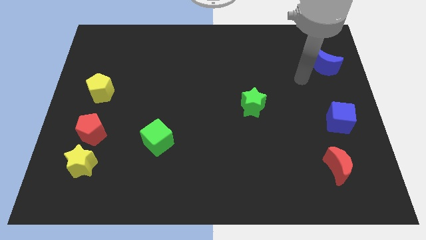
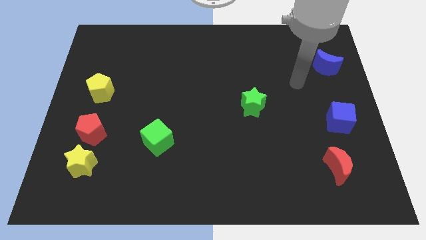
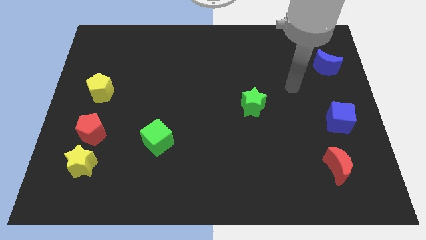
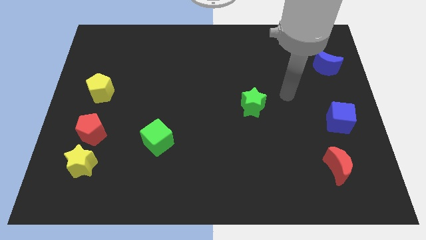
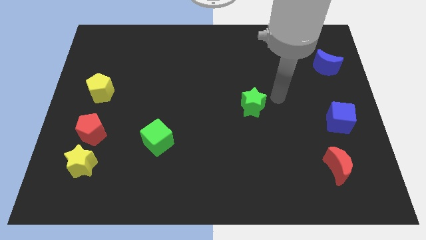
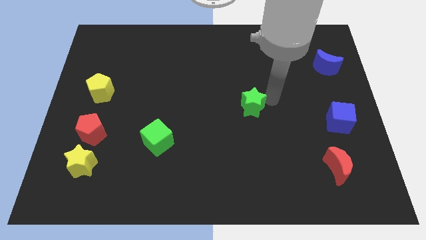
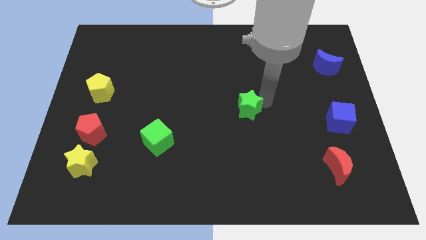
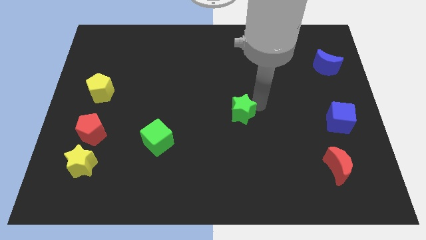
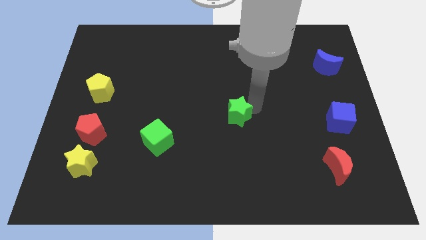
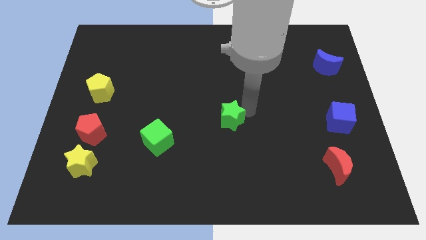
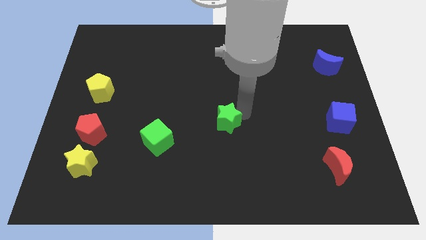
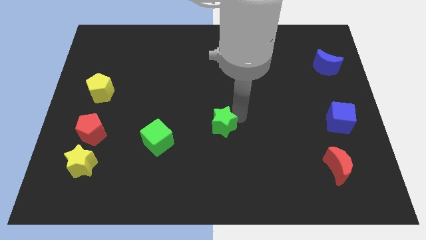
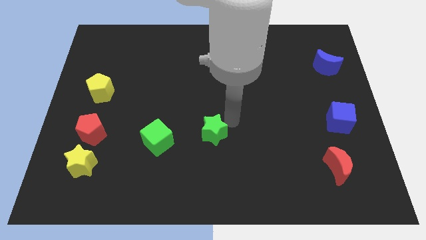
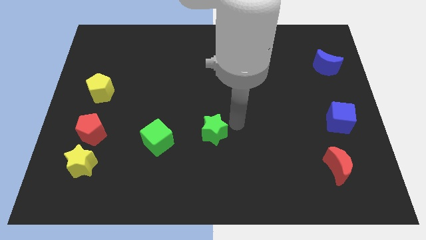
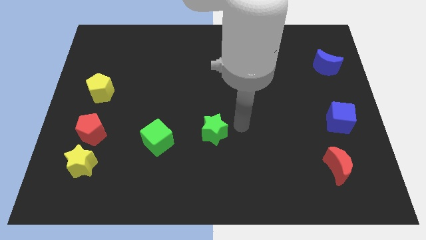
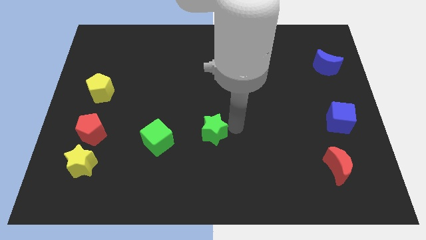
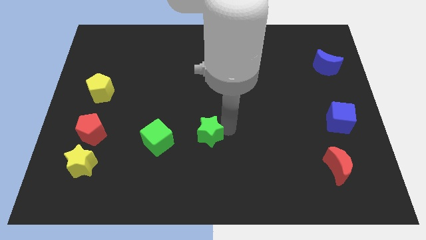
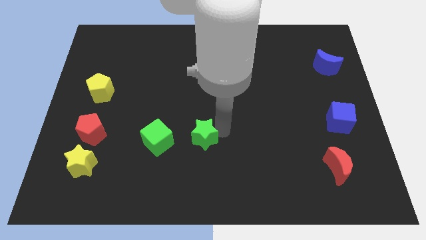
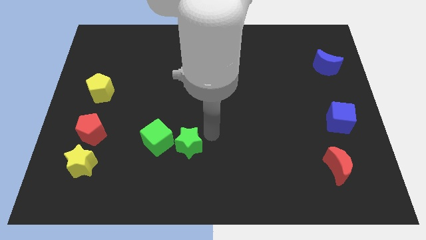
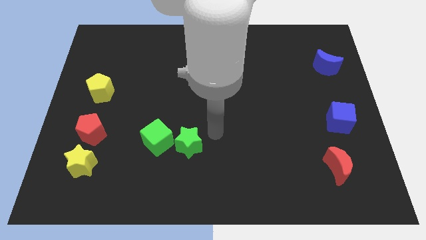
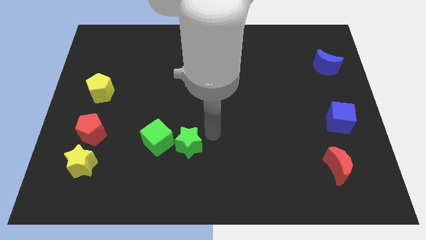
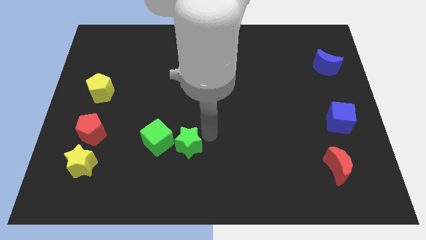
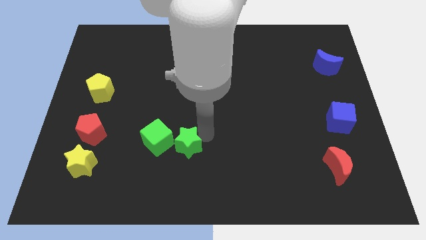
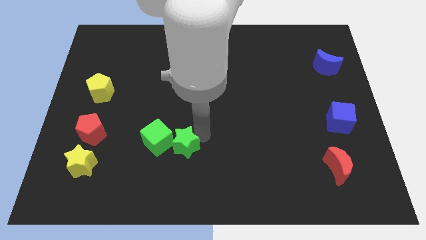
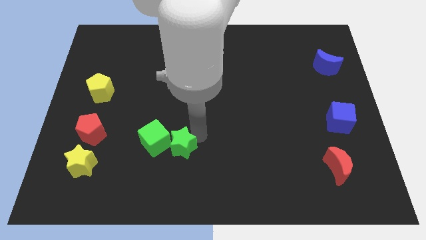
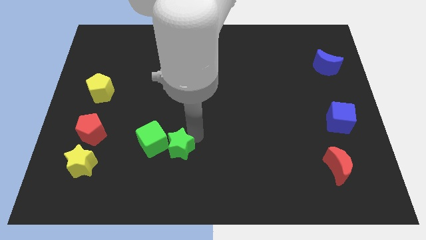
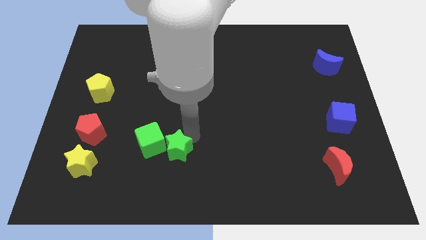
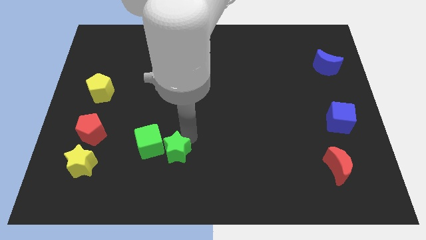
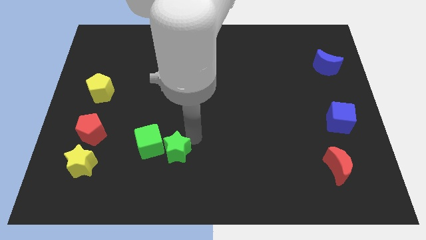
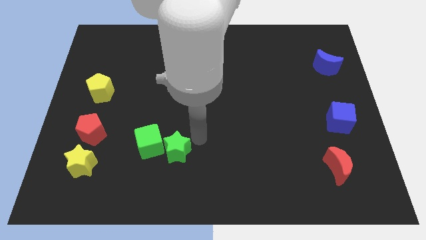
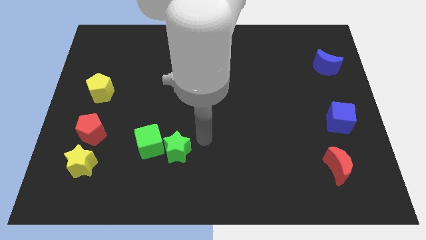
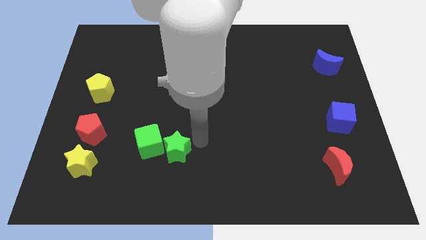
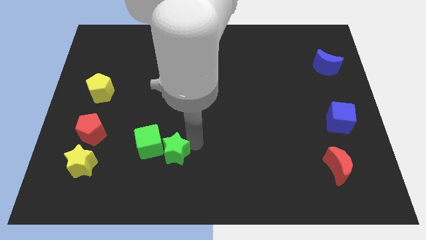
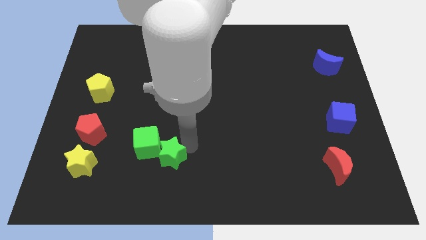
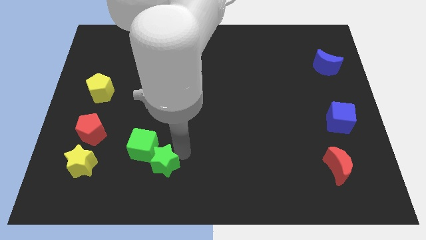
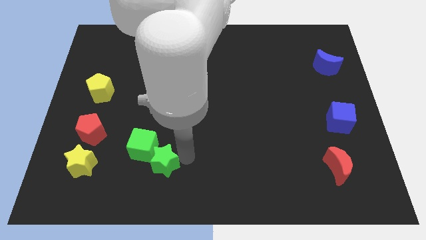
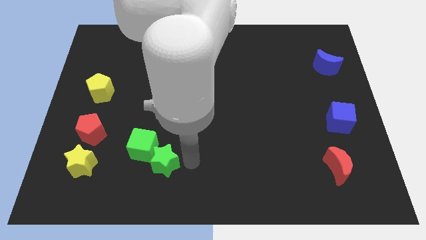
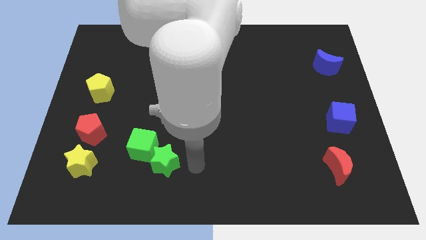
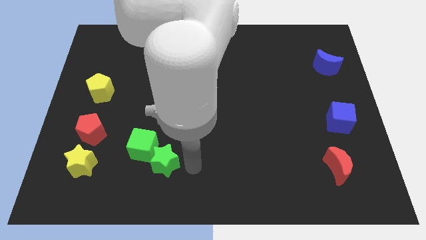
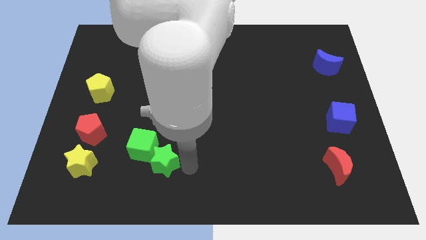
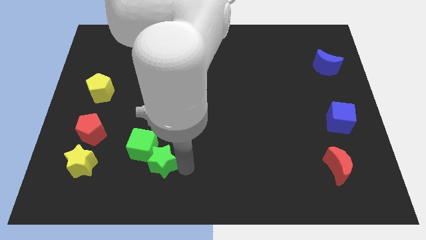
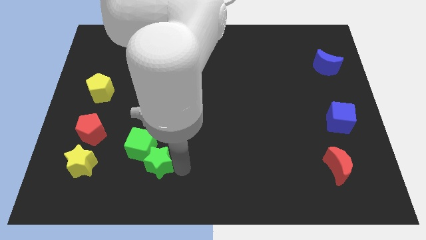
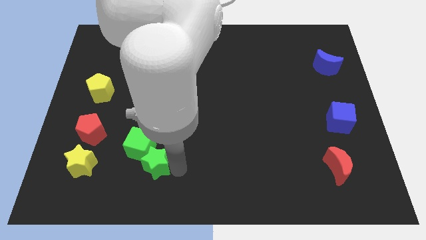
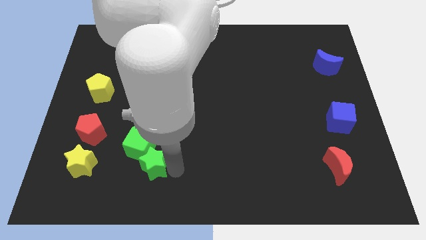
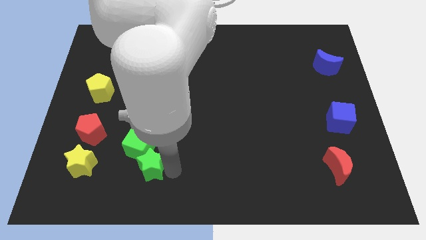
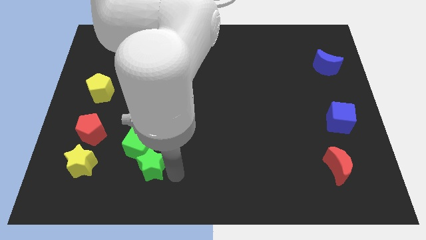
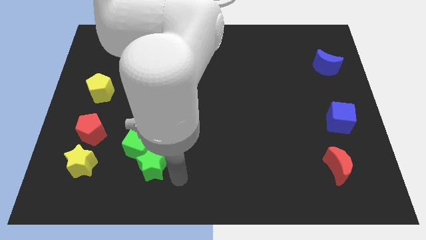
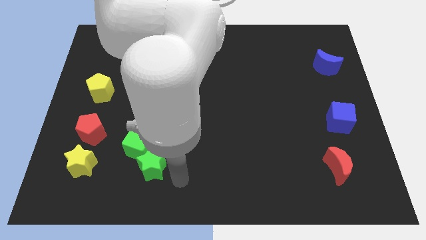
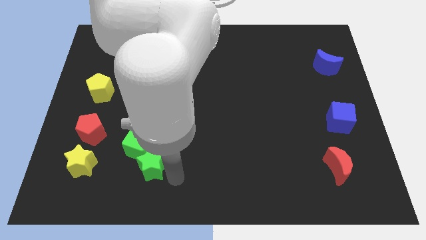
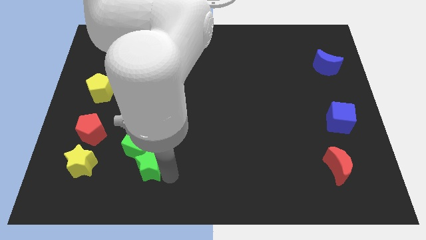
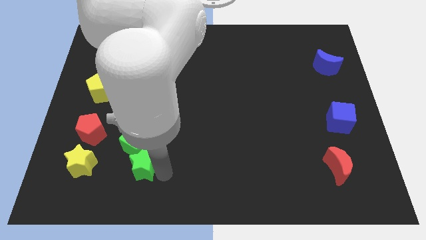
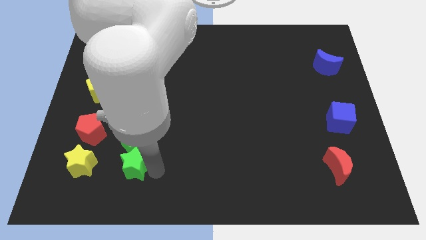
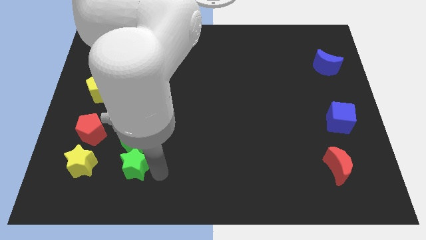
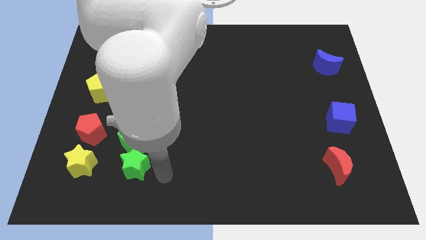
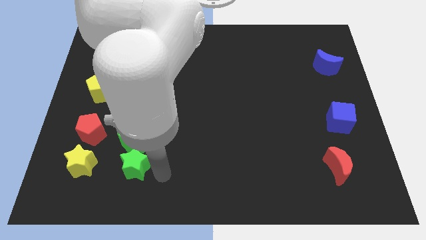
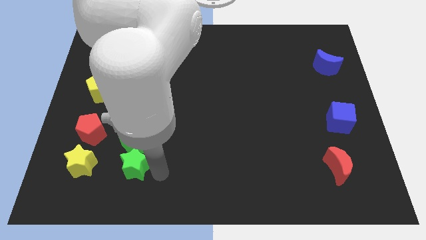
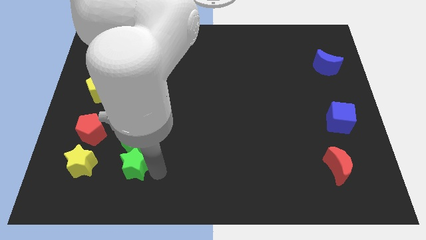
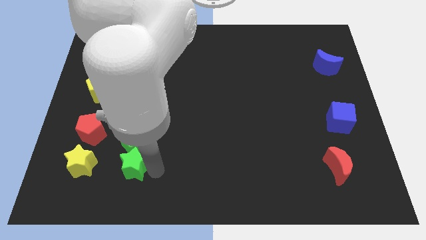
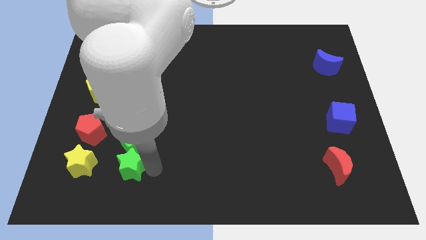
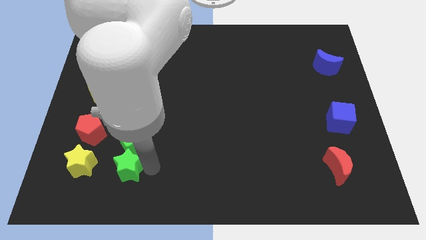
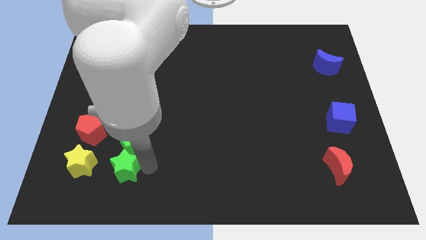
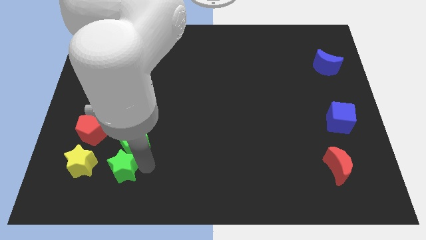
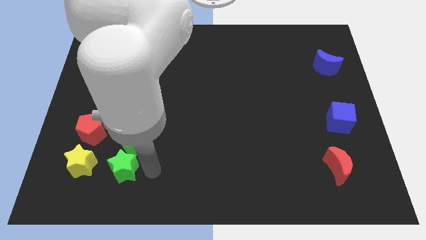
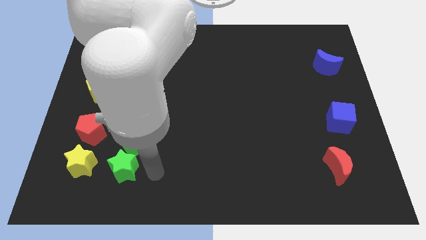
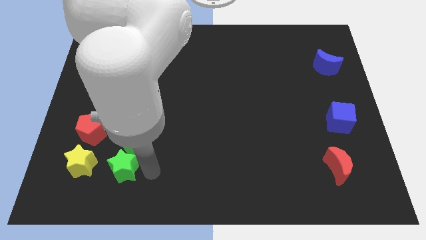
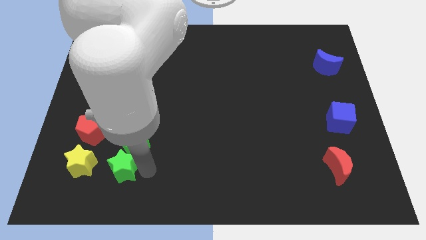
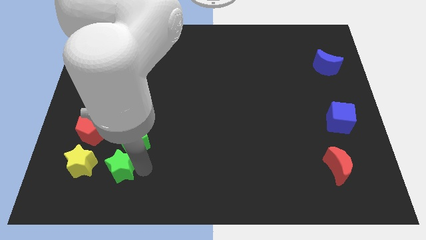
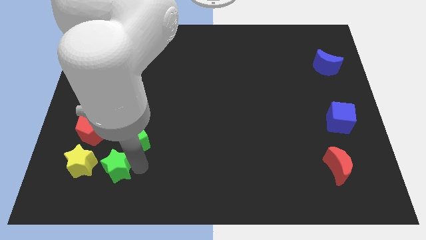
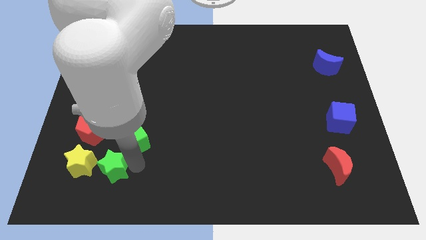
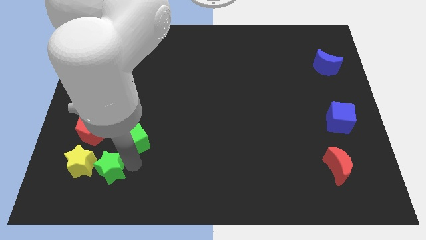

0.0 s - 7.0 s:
move the green star to the yellow star
